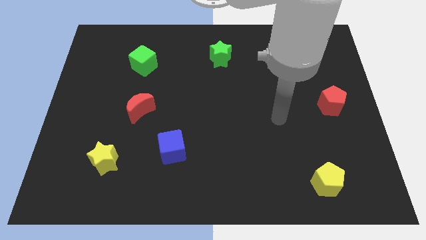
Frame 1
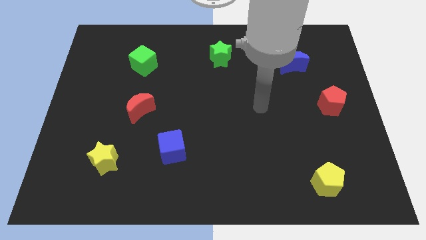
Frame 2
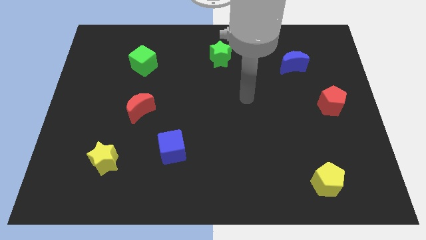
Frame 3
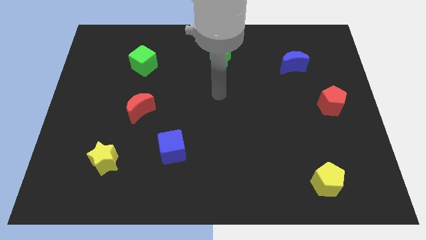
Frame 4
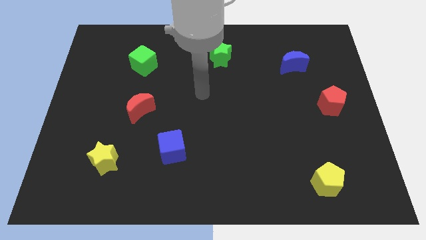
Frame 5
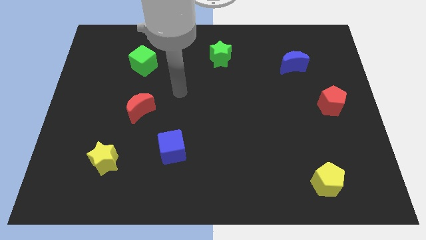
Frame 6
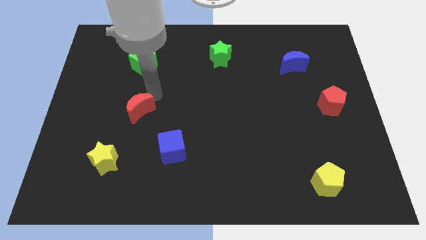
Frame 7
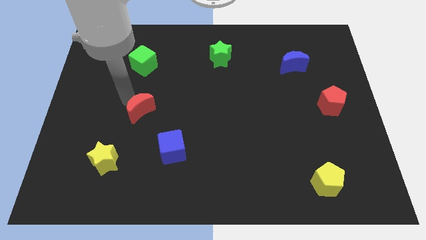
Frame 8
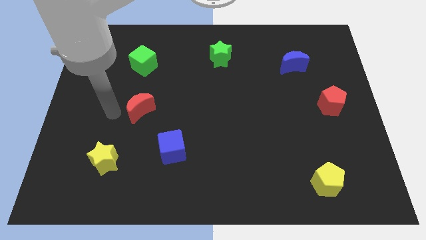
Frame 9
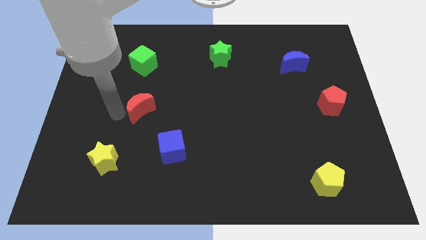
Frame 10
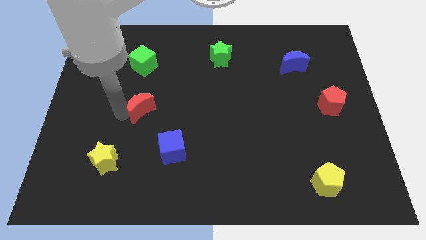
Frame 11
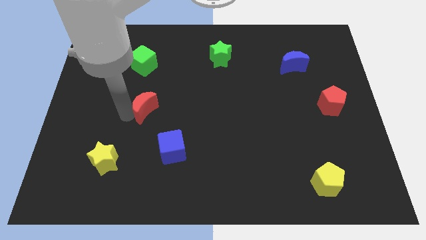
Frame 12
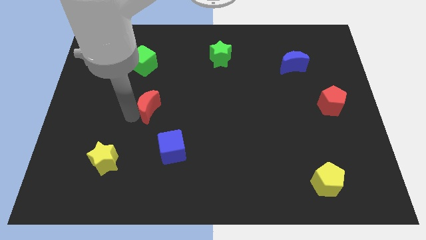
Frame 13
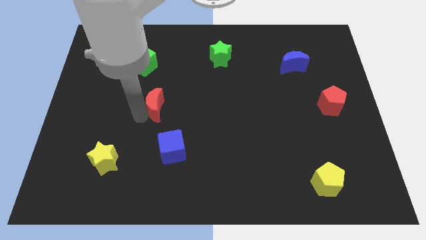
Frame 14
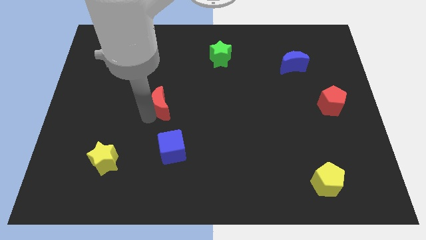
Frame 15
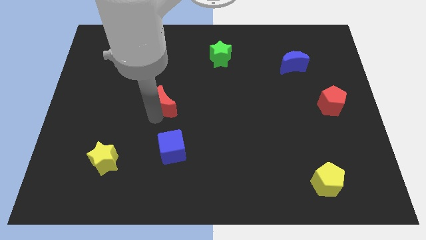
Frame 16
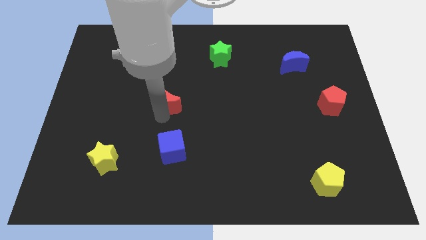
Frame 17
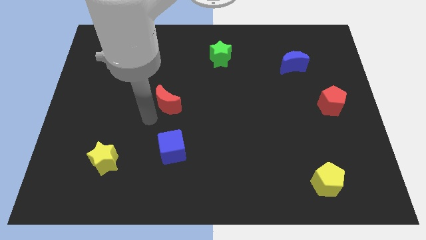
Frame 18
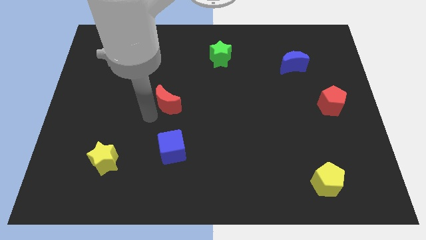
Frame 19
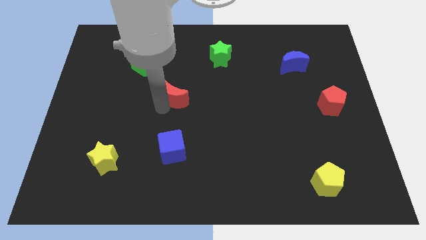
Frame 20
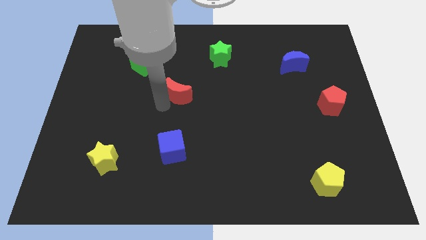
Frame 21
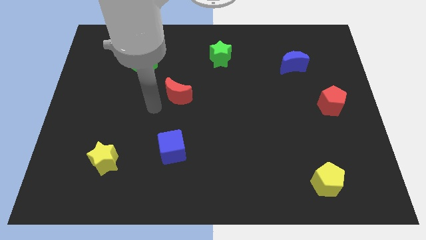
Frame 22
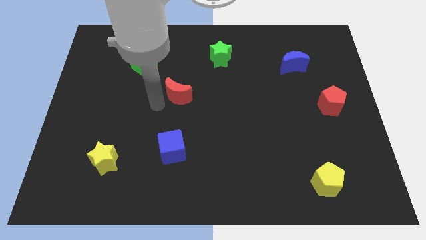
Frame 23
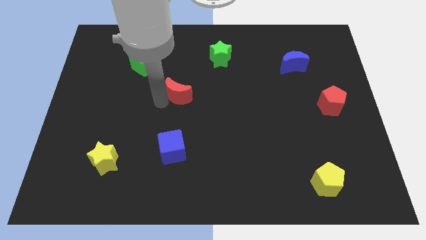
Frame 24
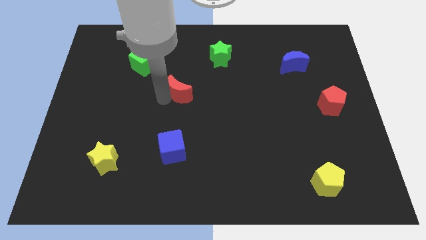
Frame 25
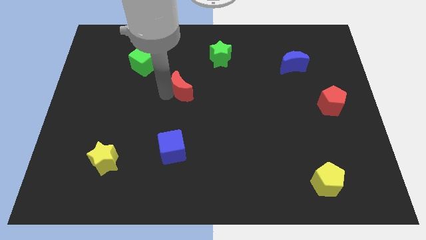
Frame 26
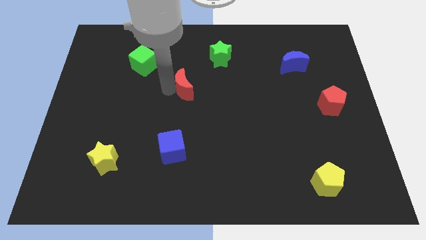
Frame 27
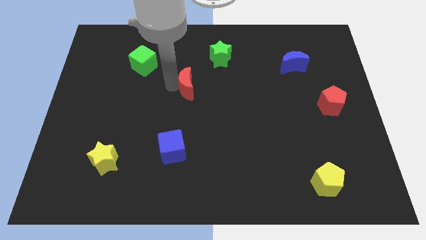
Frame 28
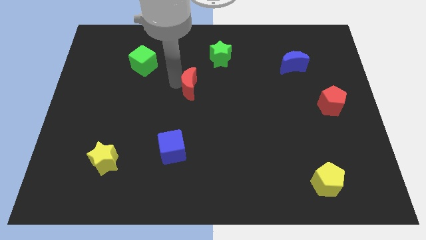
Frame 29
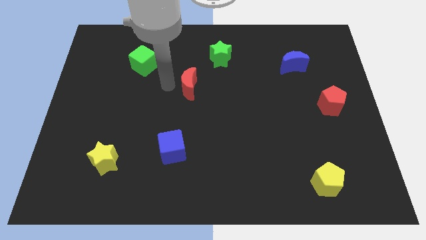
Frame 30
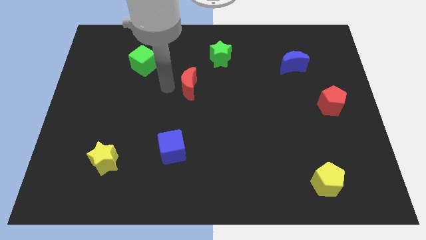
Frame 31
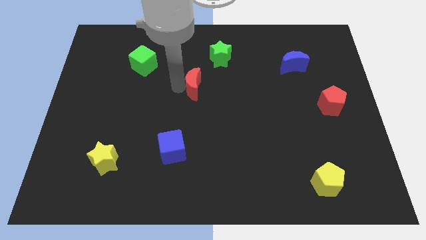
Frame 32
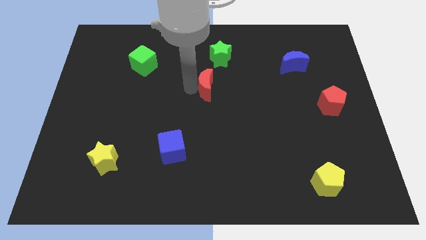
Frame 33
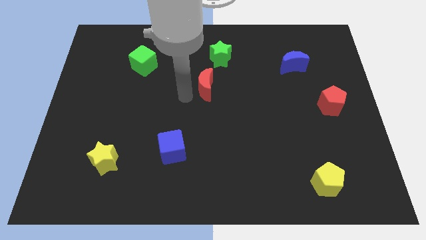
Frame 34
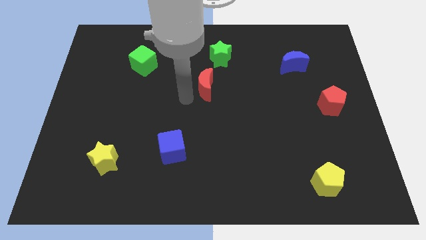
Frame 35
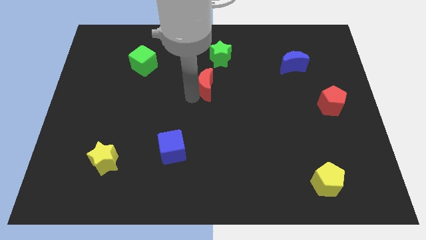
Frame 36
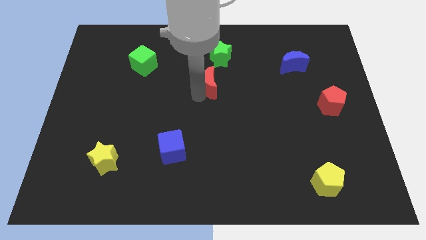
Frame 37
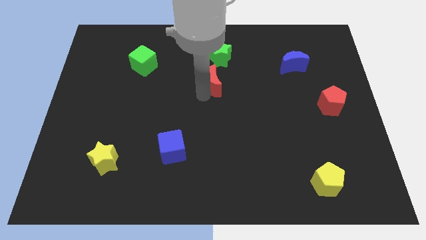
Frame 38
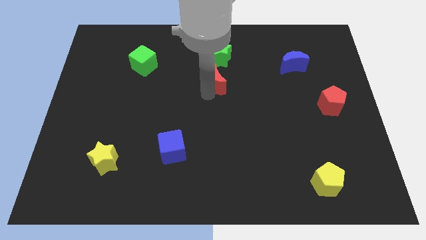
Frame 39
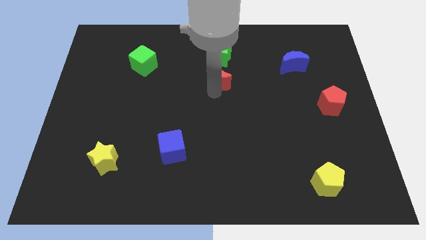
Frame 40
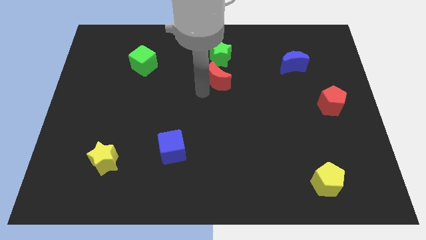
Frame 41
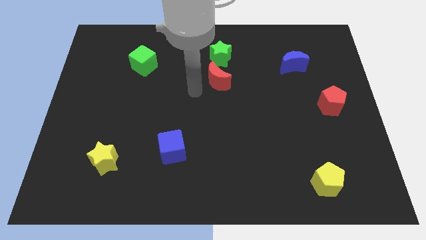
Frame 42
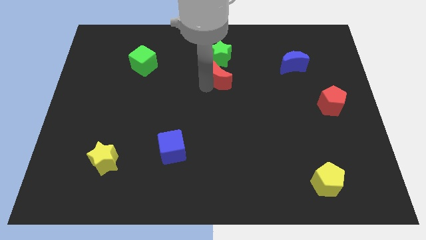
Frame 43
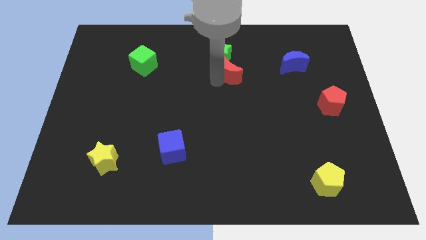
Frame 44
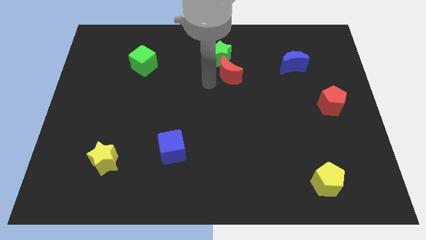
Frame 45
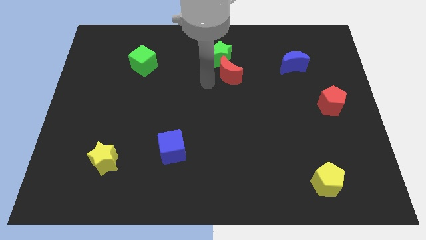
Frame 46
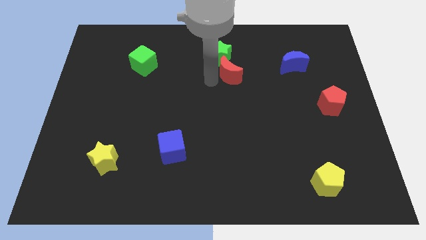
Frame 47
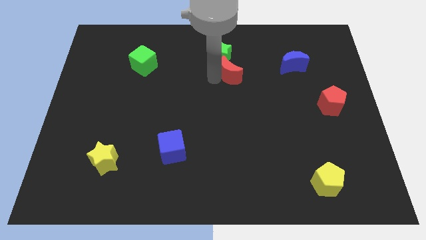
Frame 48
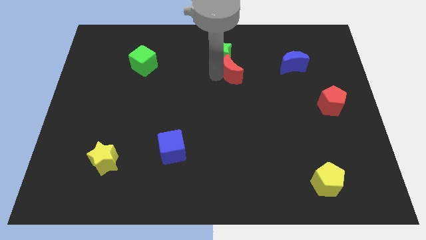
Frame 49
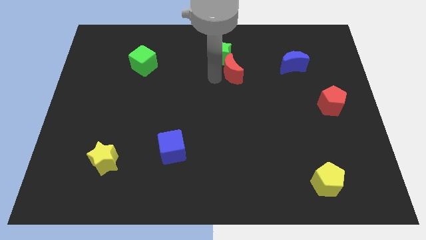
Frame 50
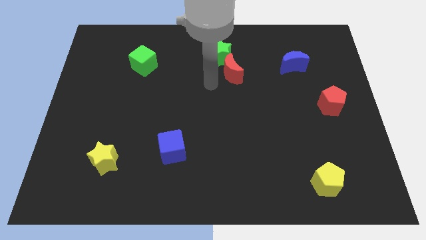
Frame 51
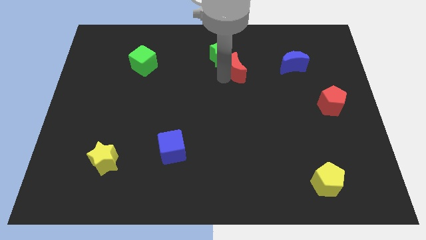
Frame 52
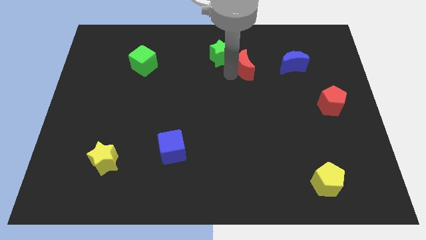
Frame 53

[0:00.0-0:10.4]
move the red moon just right of the green star

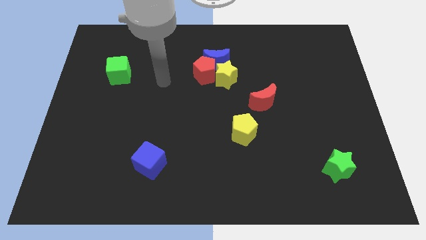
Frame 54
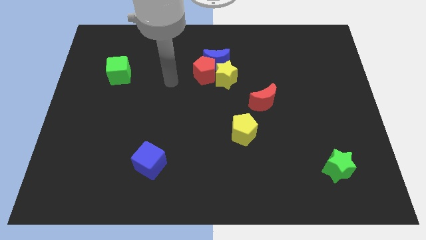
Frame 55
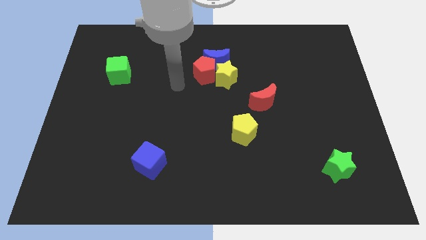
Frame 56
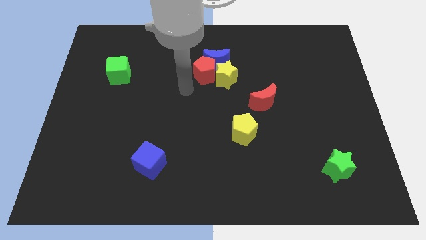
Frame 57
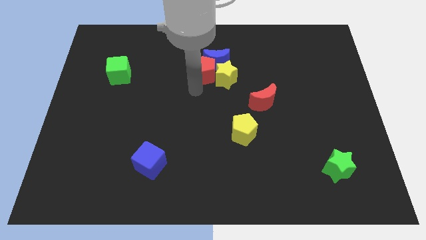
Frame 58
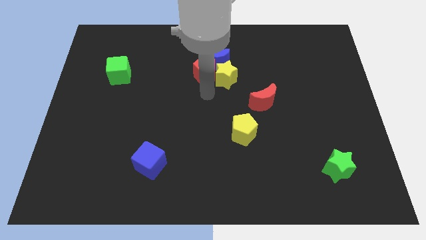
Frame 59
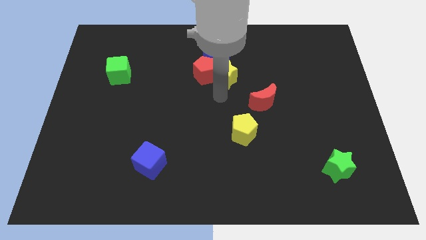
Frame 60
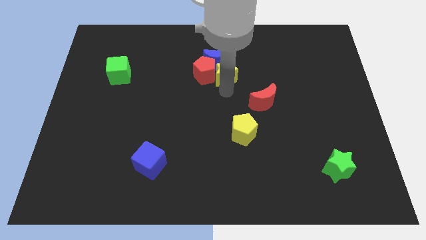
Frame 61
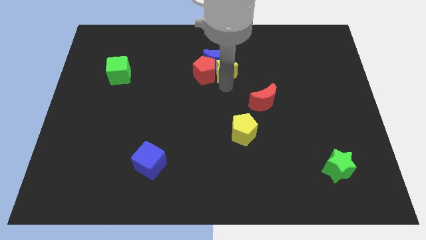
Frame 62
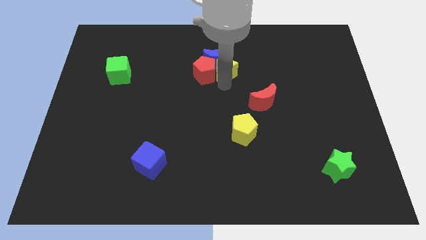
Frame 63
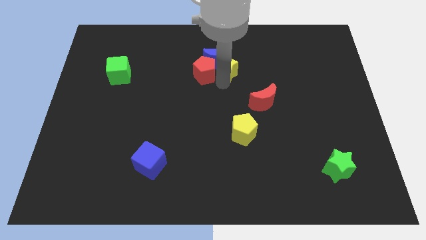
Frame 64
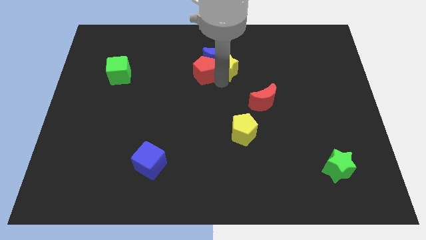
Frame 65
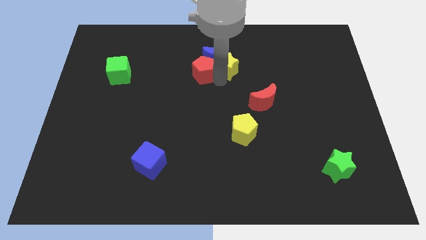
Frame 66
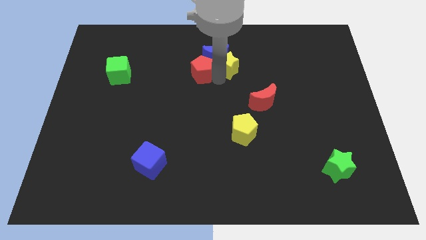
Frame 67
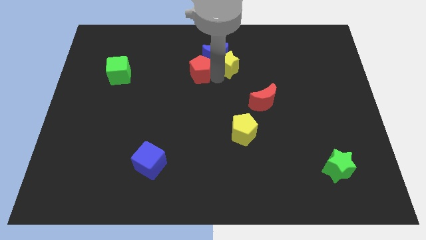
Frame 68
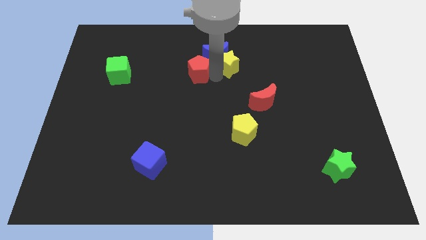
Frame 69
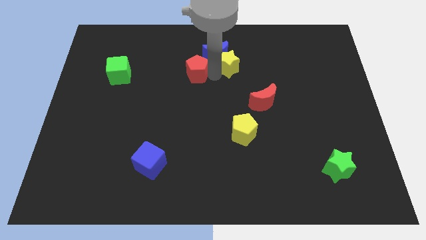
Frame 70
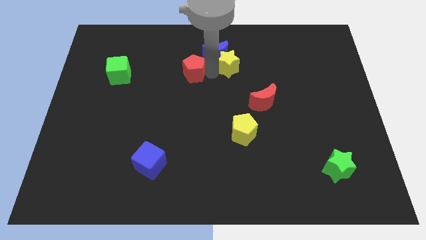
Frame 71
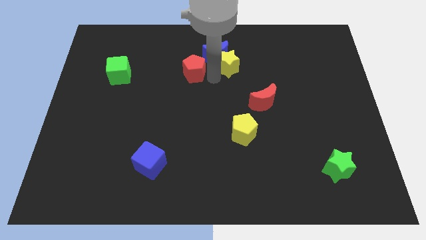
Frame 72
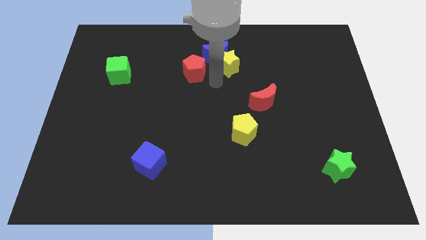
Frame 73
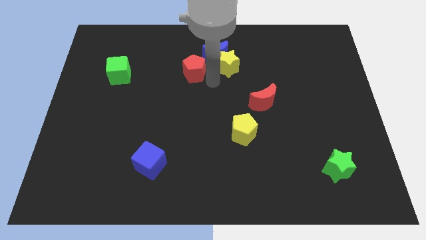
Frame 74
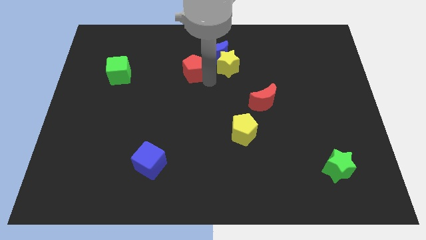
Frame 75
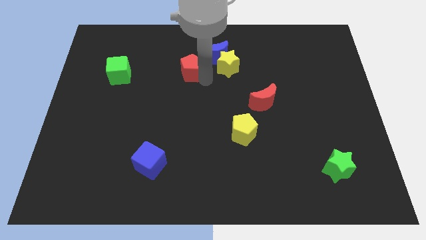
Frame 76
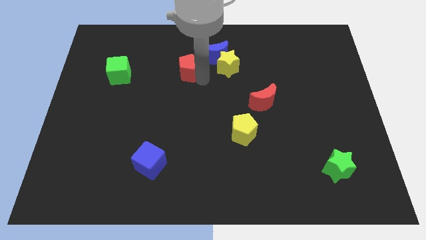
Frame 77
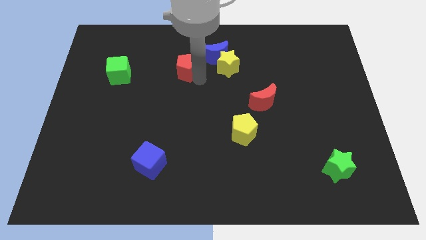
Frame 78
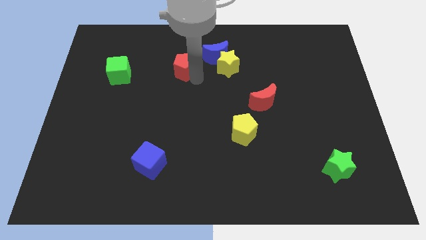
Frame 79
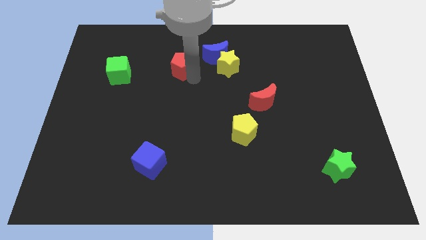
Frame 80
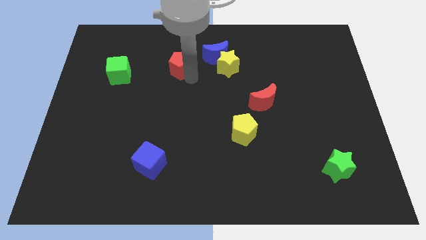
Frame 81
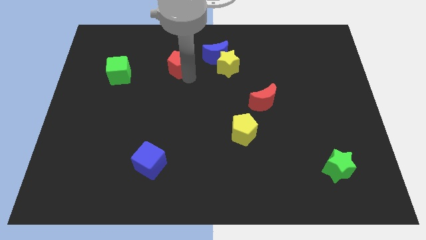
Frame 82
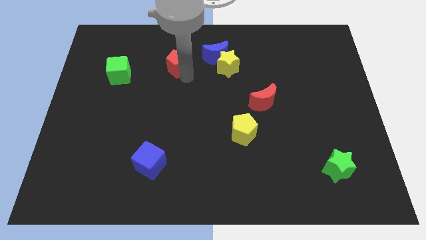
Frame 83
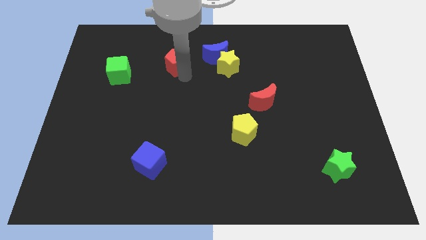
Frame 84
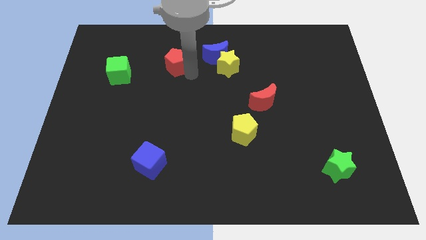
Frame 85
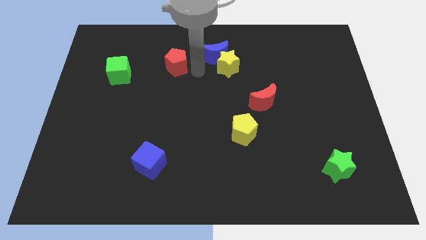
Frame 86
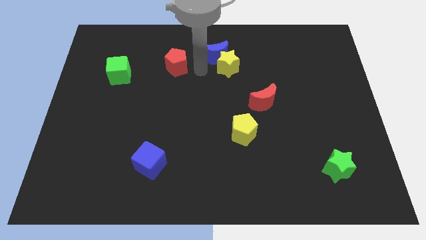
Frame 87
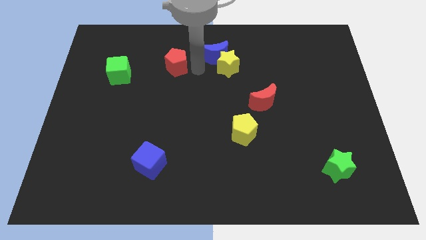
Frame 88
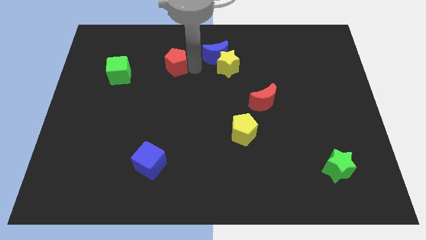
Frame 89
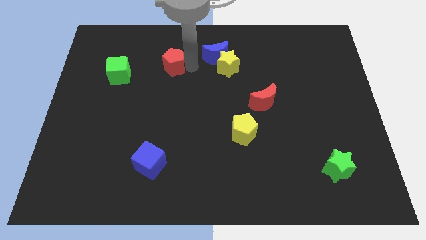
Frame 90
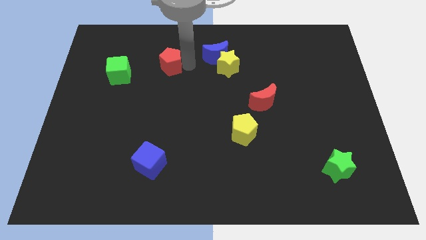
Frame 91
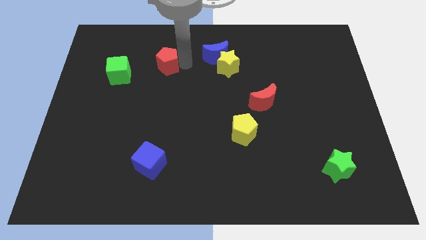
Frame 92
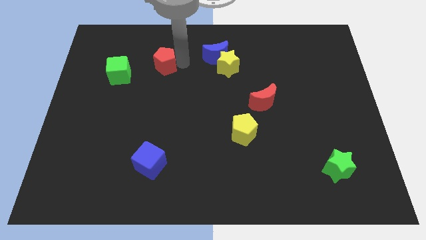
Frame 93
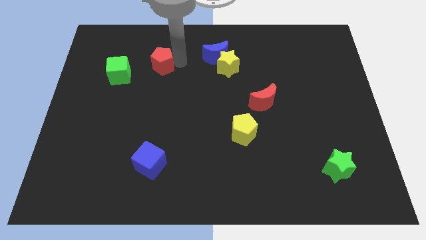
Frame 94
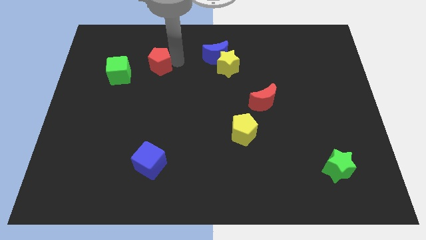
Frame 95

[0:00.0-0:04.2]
put the red pentagon diagonally up and to the right of the green cube
